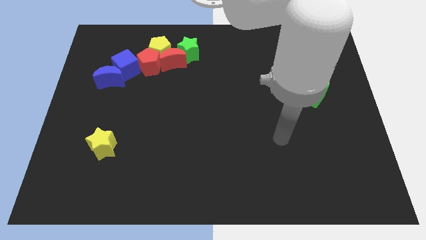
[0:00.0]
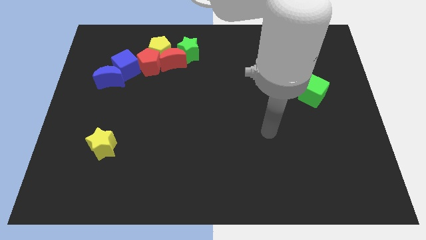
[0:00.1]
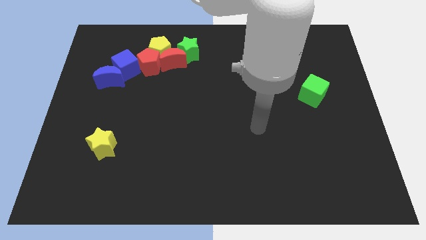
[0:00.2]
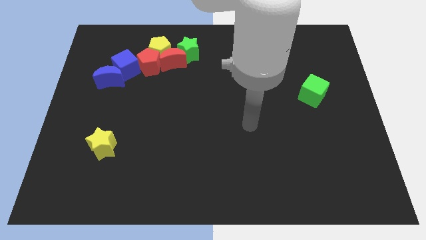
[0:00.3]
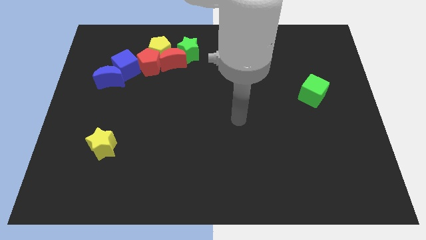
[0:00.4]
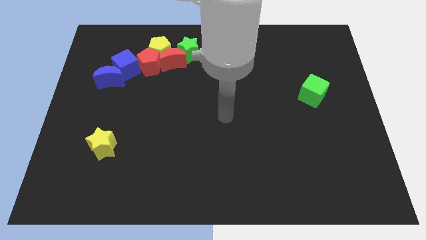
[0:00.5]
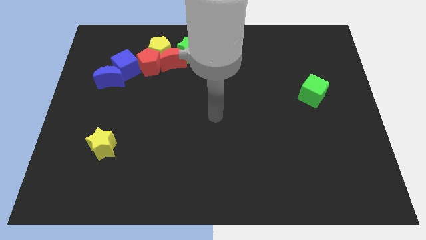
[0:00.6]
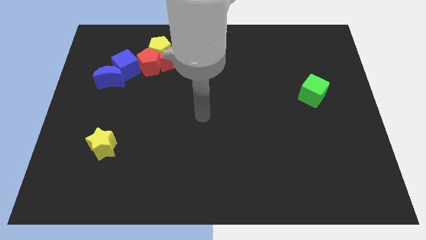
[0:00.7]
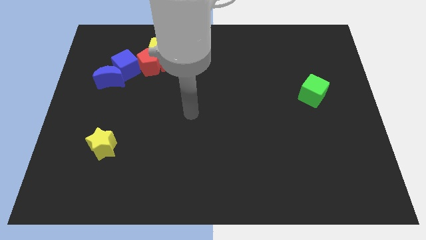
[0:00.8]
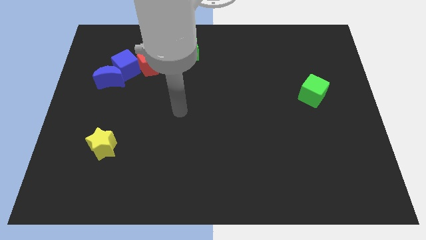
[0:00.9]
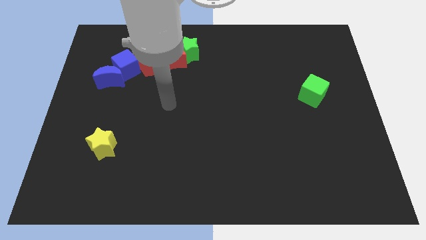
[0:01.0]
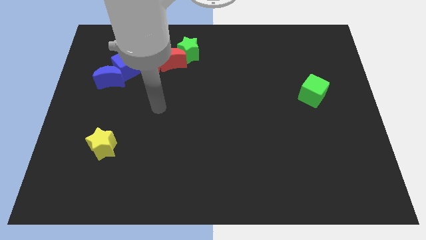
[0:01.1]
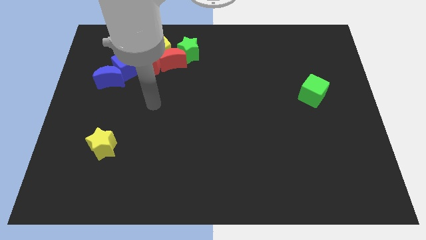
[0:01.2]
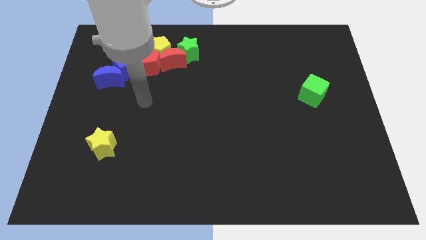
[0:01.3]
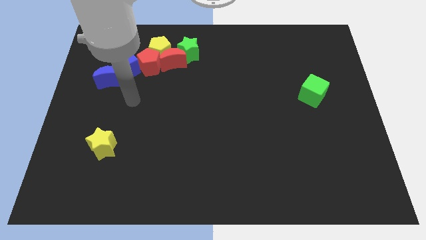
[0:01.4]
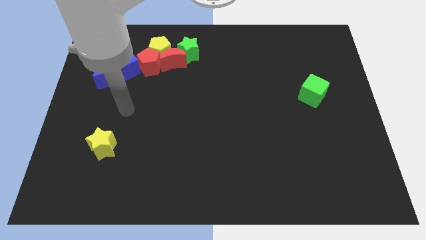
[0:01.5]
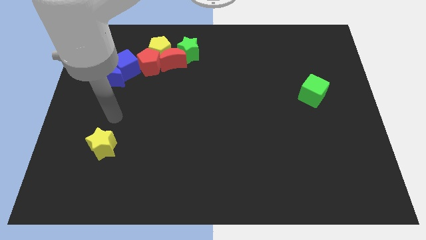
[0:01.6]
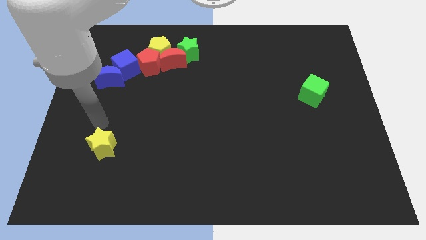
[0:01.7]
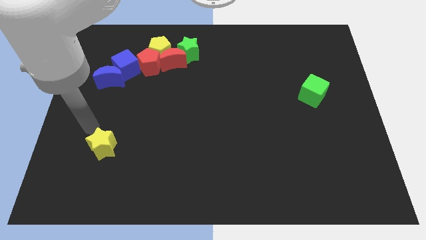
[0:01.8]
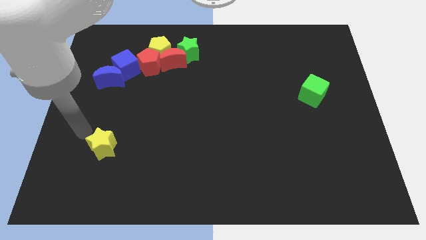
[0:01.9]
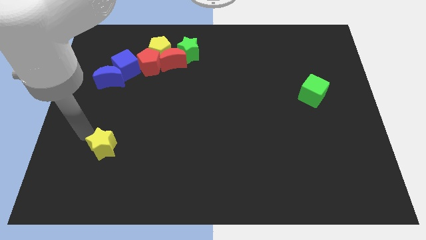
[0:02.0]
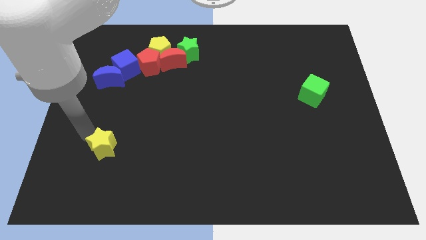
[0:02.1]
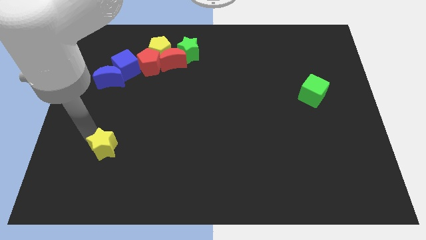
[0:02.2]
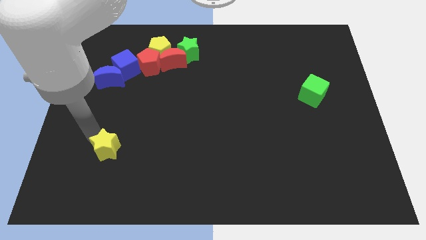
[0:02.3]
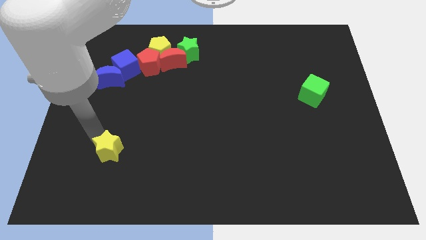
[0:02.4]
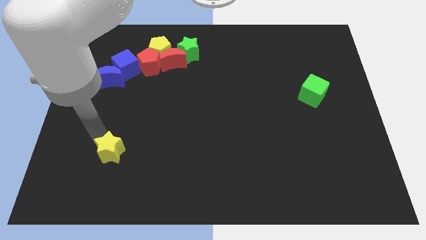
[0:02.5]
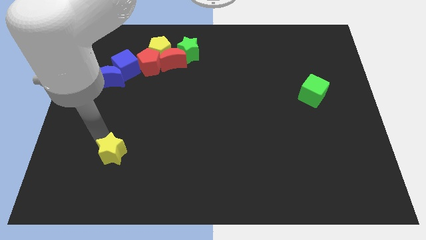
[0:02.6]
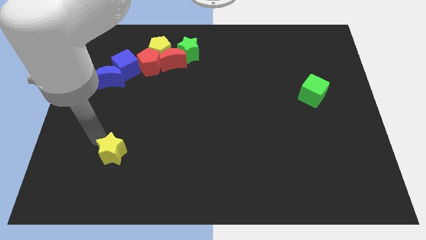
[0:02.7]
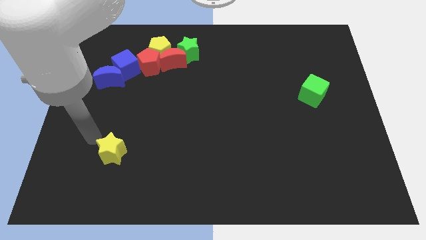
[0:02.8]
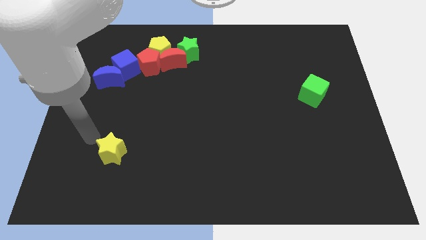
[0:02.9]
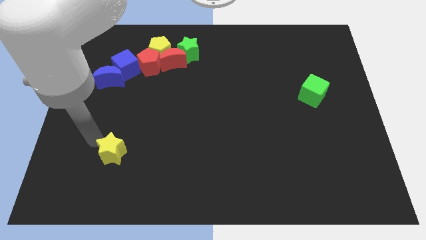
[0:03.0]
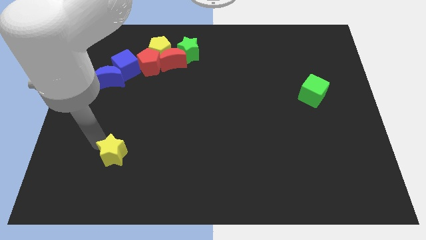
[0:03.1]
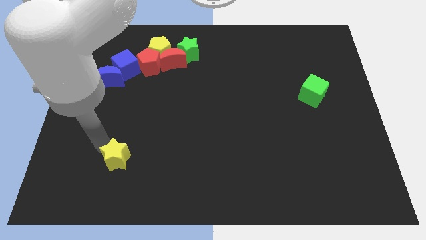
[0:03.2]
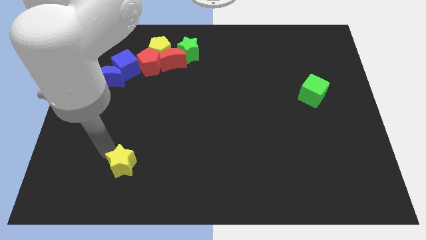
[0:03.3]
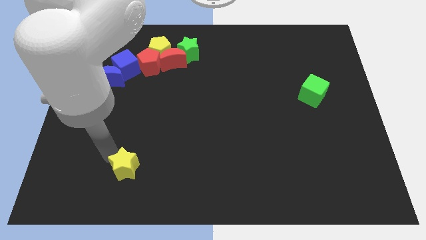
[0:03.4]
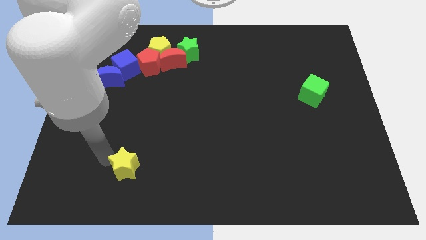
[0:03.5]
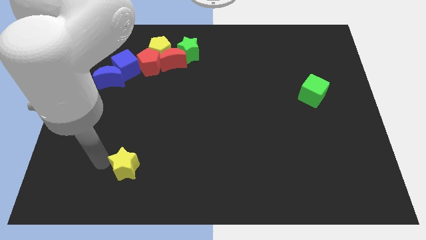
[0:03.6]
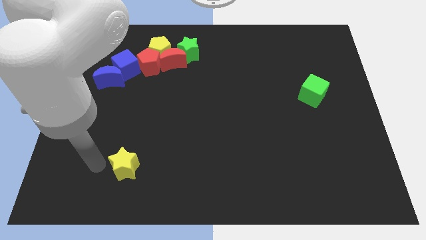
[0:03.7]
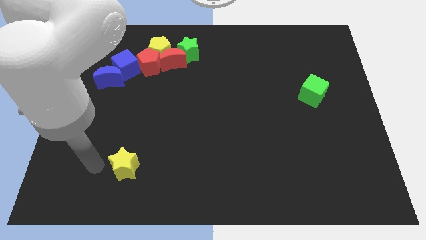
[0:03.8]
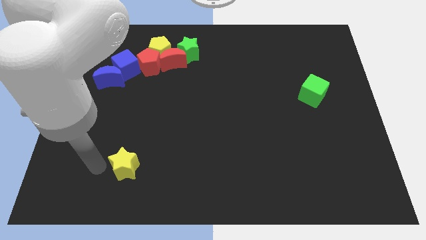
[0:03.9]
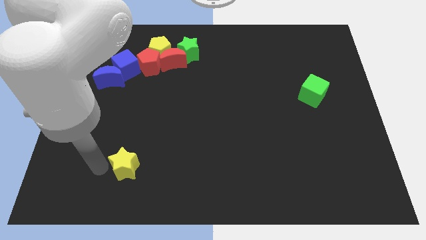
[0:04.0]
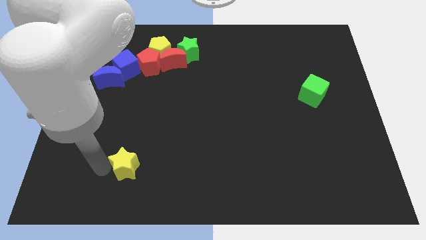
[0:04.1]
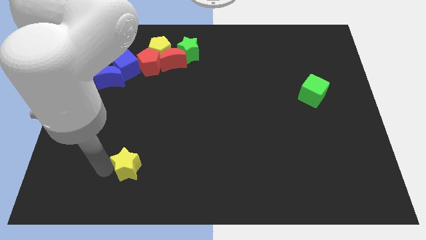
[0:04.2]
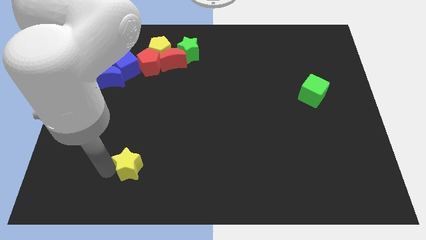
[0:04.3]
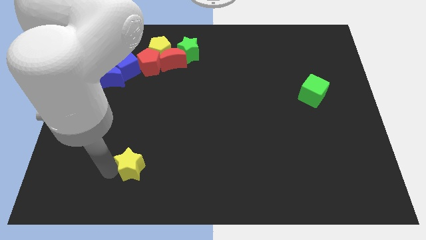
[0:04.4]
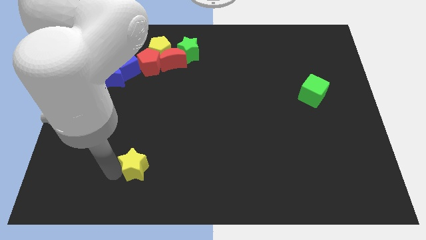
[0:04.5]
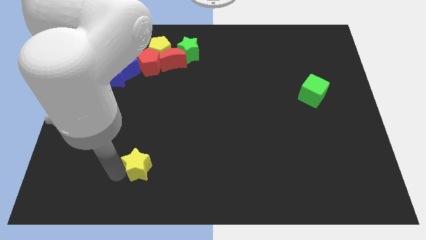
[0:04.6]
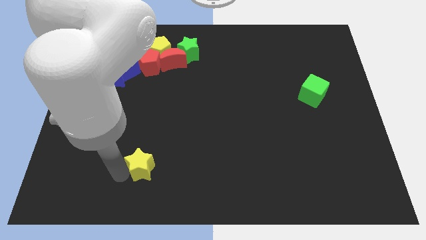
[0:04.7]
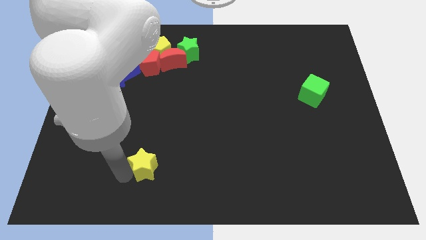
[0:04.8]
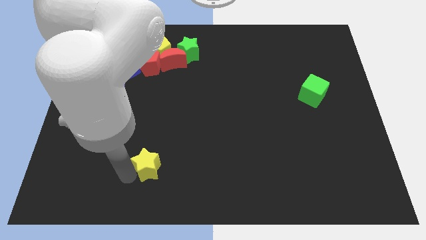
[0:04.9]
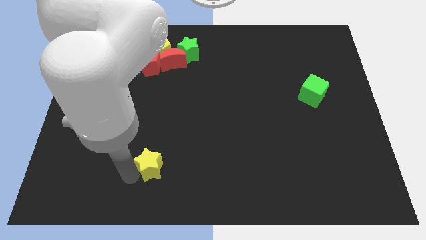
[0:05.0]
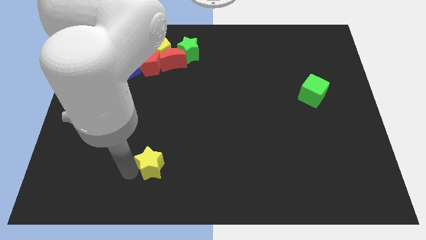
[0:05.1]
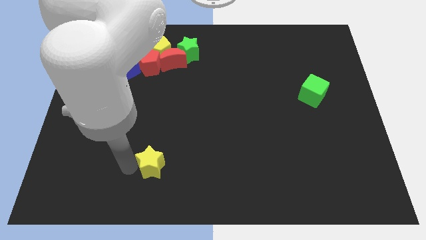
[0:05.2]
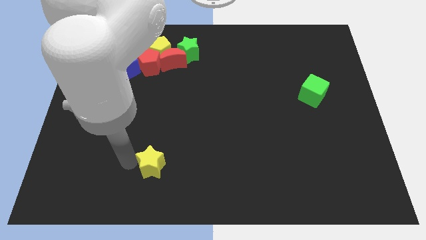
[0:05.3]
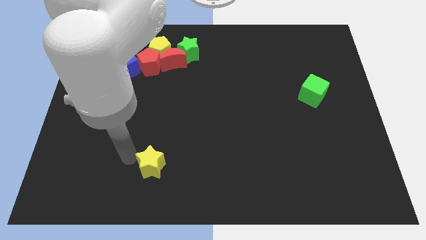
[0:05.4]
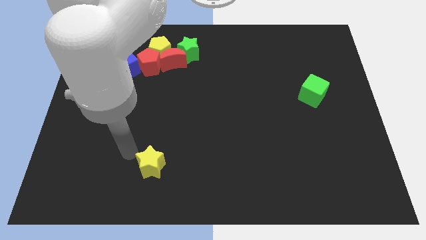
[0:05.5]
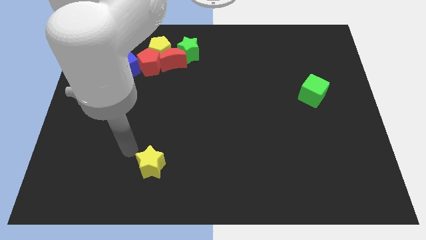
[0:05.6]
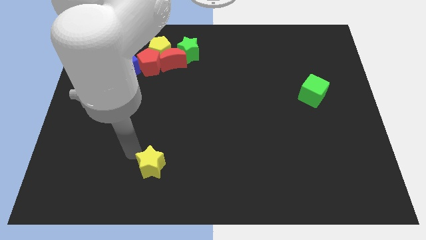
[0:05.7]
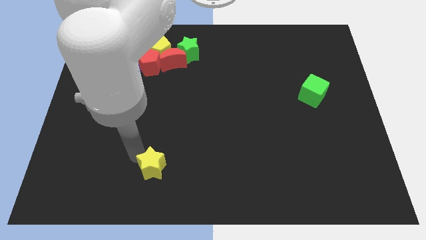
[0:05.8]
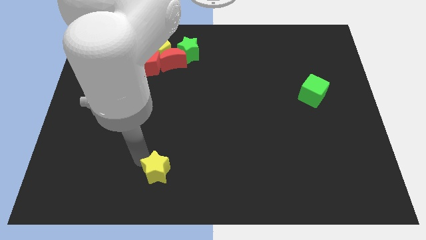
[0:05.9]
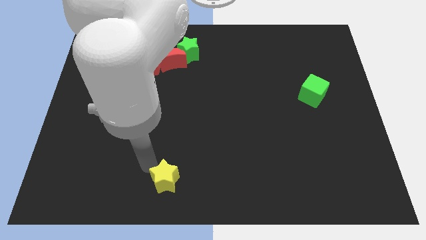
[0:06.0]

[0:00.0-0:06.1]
push the yellow star to the bottom

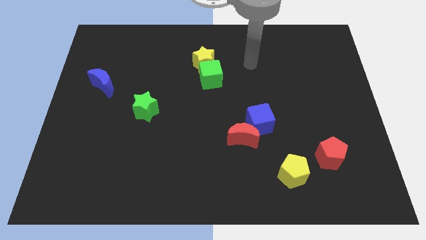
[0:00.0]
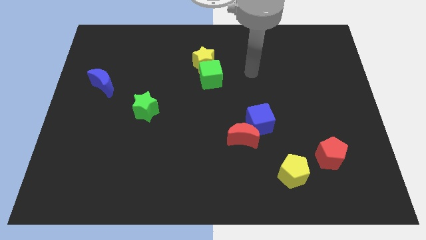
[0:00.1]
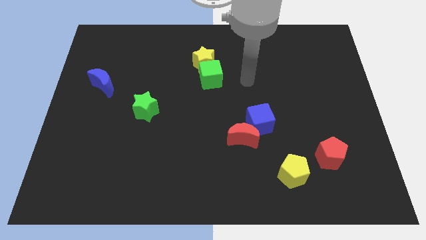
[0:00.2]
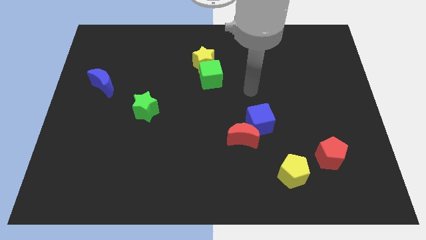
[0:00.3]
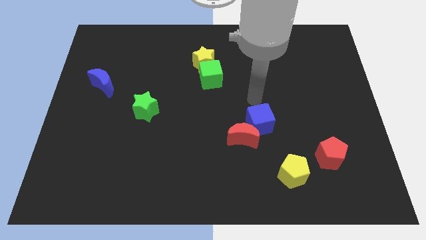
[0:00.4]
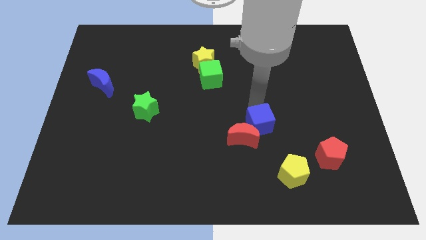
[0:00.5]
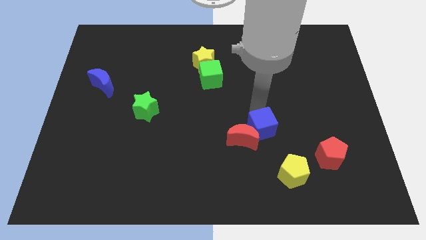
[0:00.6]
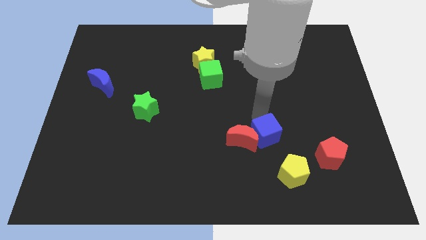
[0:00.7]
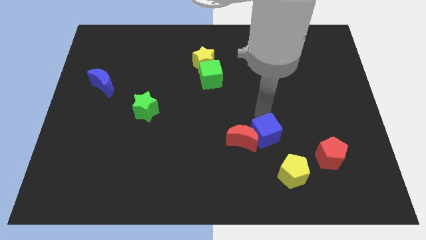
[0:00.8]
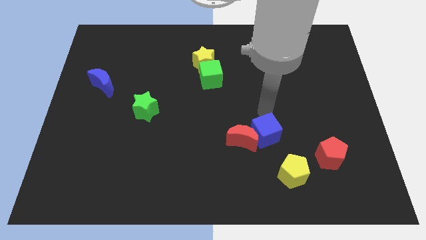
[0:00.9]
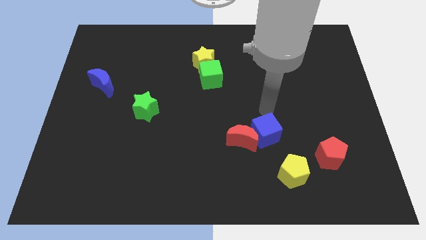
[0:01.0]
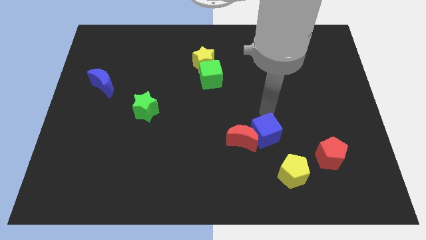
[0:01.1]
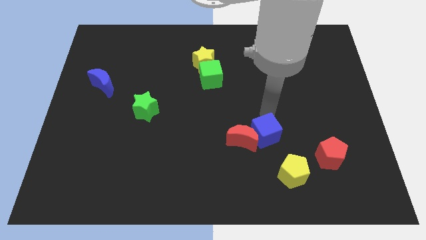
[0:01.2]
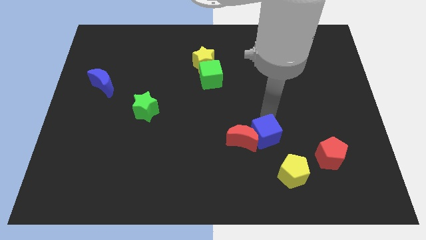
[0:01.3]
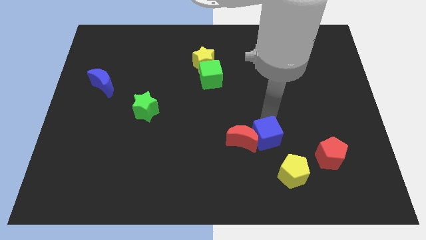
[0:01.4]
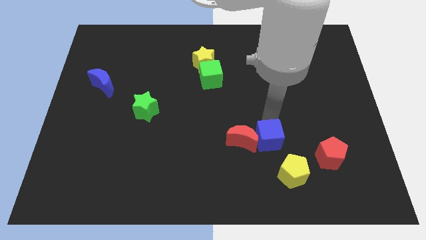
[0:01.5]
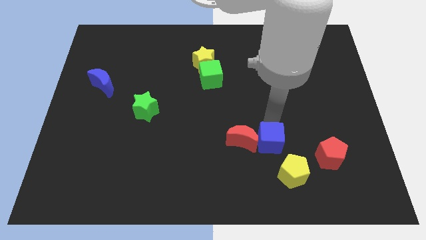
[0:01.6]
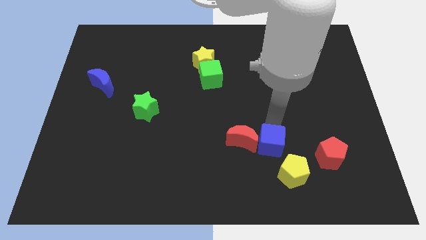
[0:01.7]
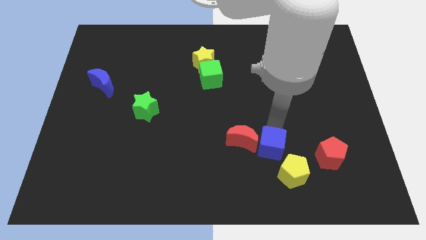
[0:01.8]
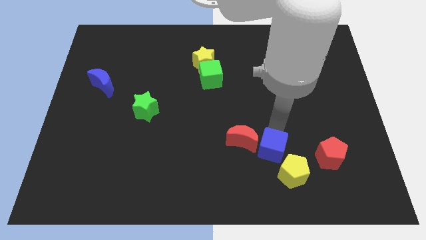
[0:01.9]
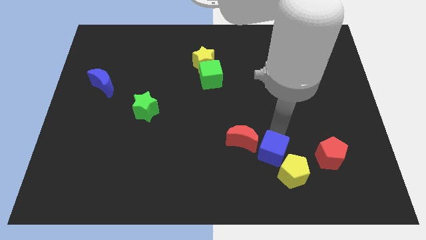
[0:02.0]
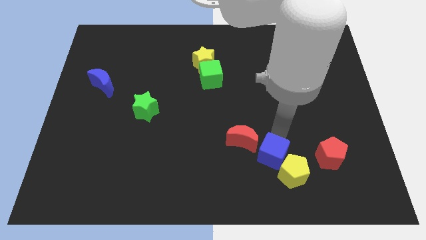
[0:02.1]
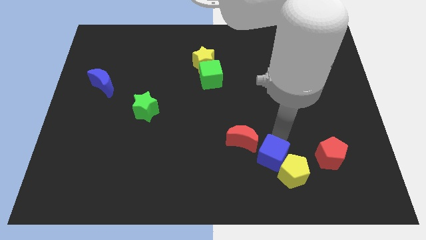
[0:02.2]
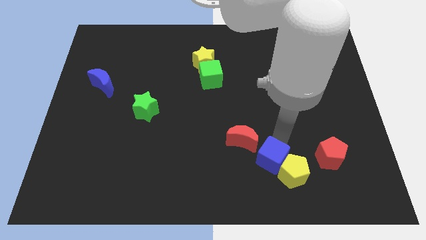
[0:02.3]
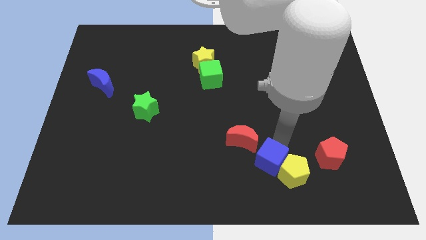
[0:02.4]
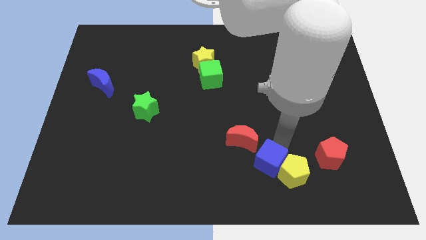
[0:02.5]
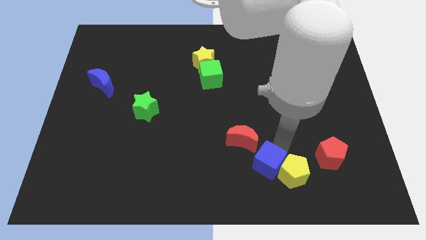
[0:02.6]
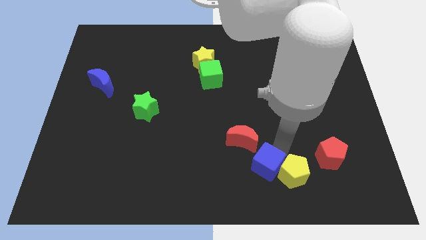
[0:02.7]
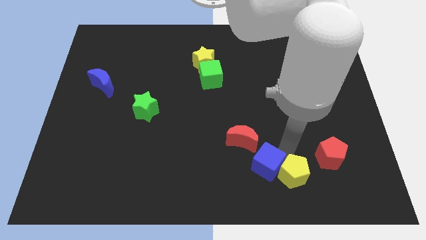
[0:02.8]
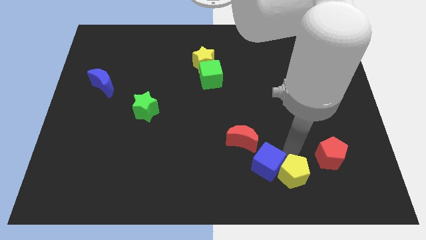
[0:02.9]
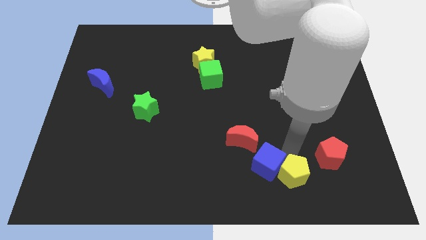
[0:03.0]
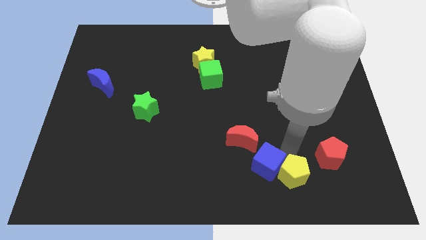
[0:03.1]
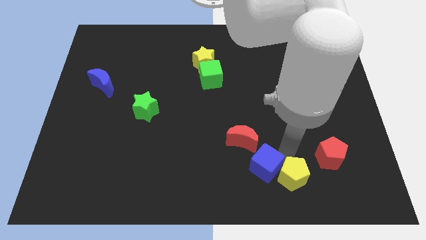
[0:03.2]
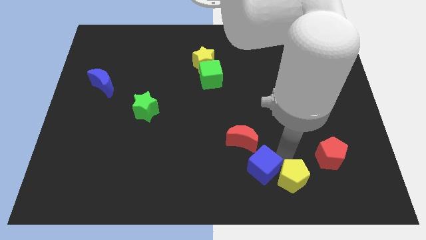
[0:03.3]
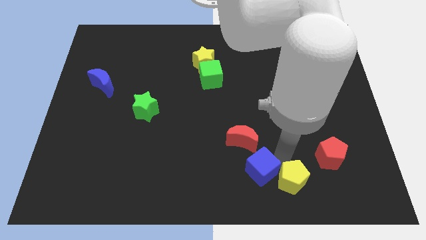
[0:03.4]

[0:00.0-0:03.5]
move the blue cube to the bottom side
